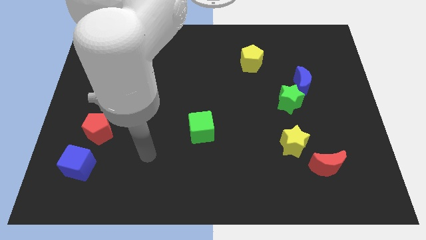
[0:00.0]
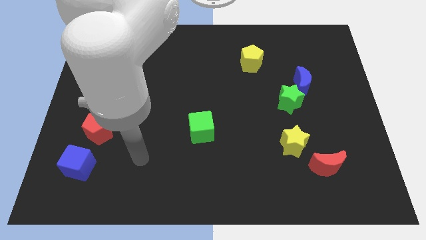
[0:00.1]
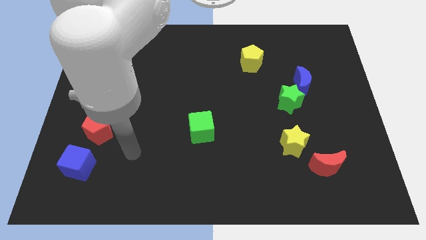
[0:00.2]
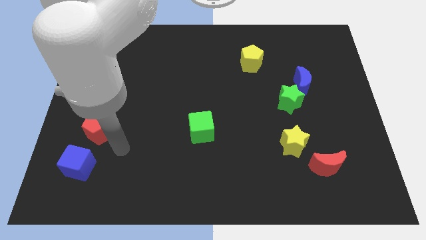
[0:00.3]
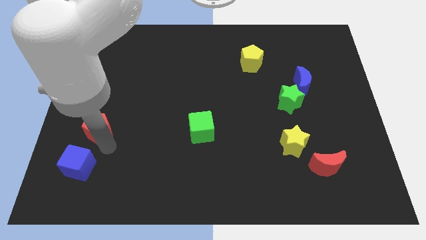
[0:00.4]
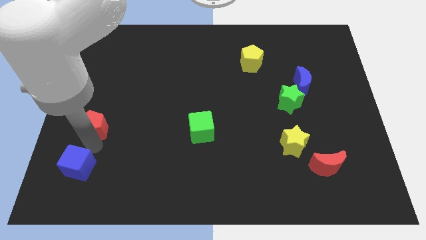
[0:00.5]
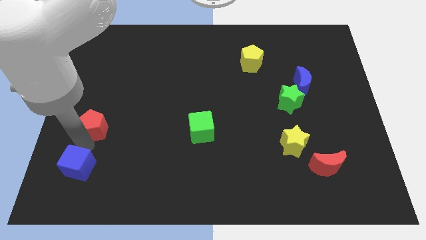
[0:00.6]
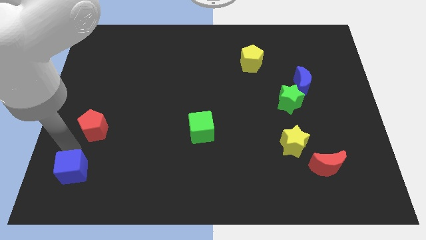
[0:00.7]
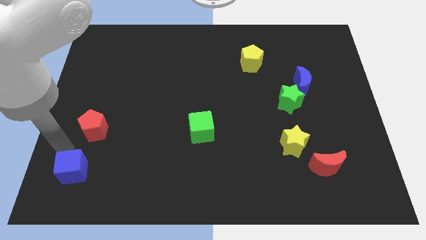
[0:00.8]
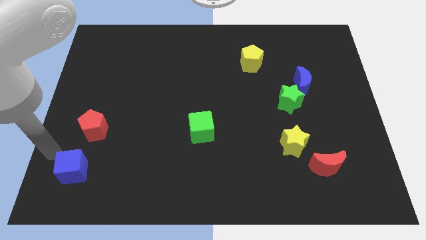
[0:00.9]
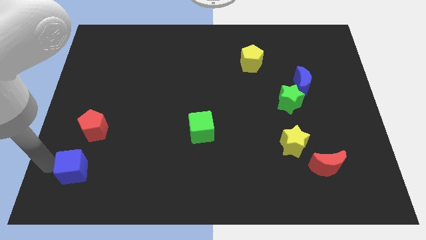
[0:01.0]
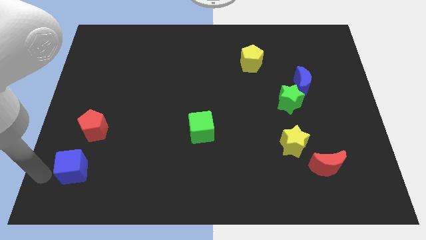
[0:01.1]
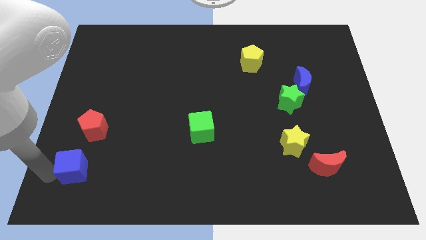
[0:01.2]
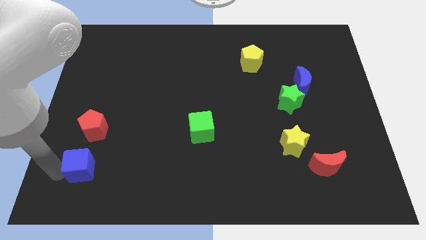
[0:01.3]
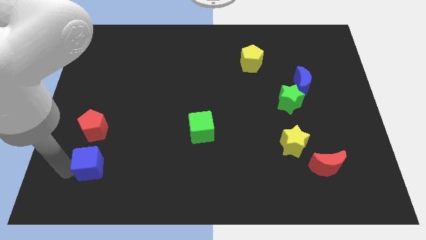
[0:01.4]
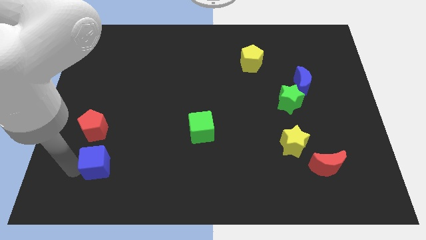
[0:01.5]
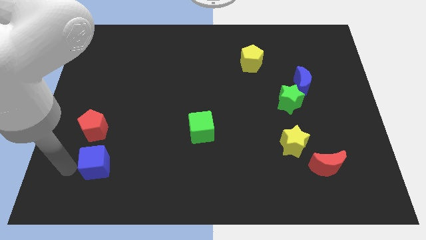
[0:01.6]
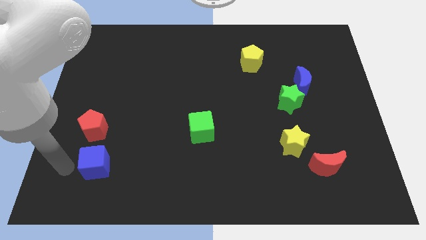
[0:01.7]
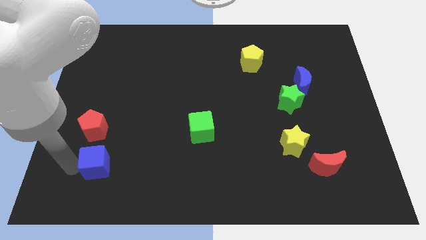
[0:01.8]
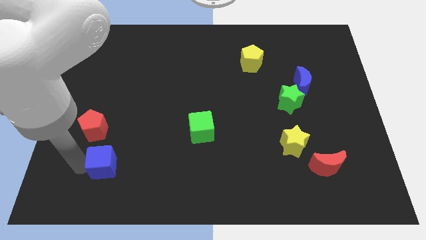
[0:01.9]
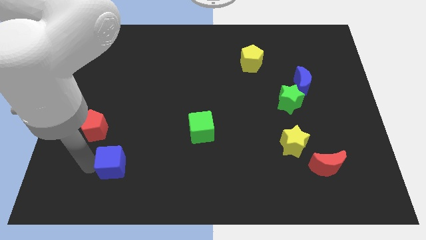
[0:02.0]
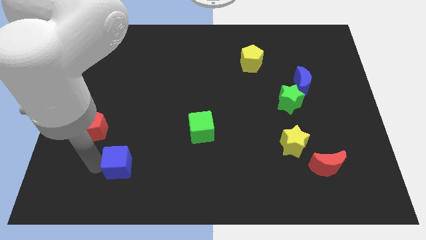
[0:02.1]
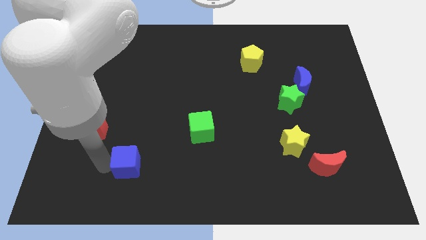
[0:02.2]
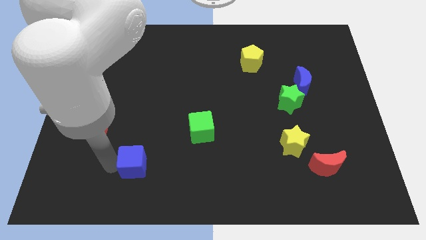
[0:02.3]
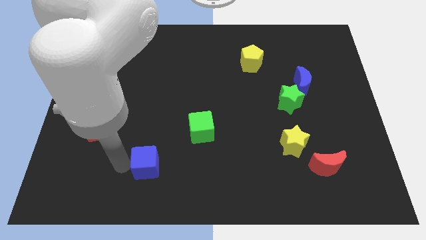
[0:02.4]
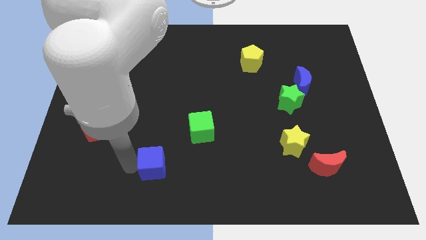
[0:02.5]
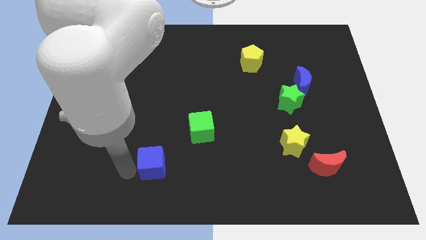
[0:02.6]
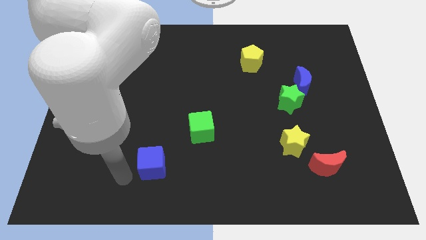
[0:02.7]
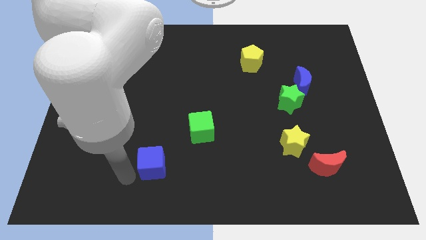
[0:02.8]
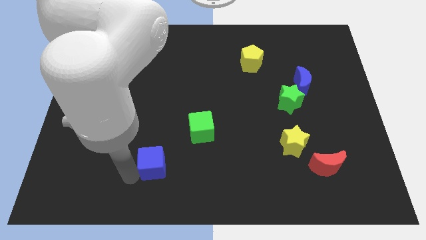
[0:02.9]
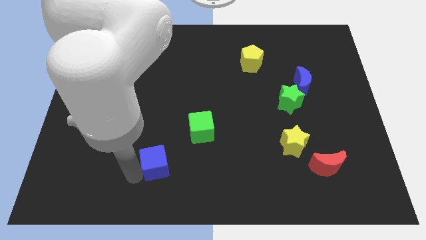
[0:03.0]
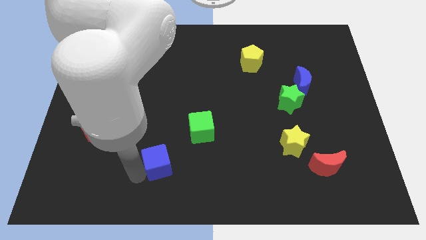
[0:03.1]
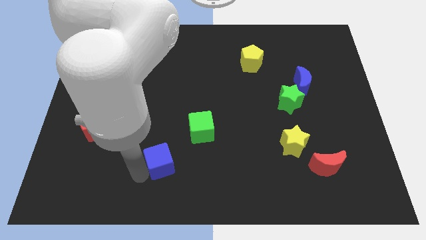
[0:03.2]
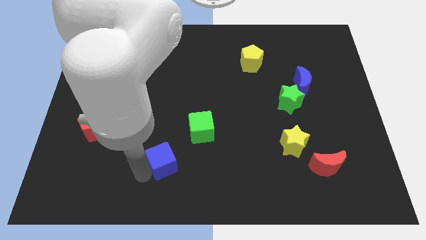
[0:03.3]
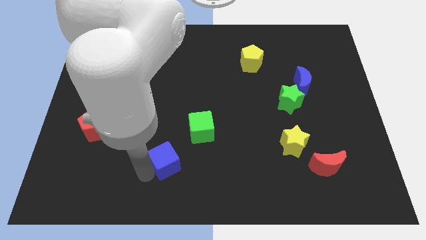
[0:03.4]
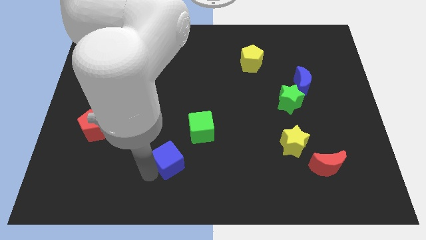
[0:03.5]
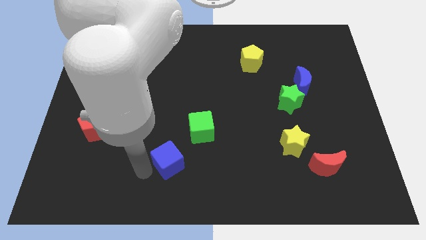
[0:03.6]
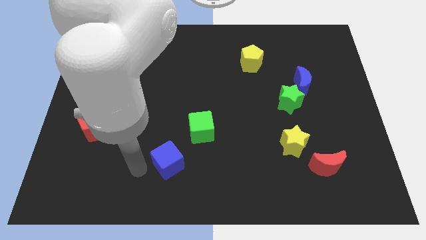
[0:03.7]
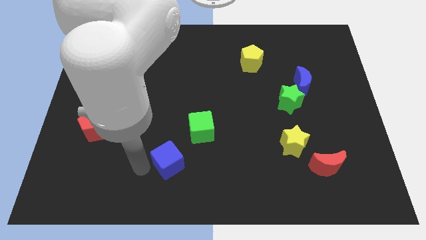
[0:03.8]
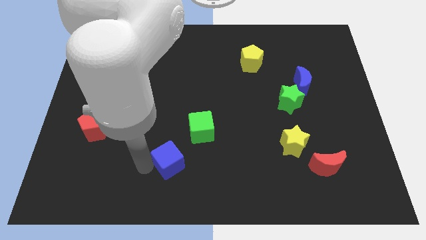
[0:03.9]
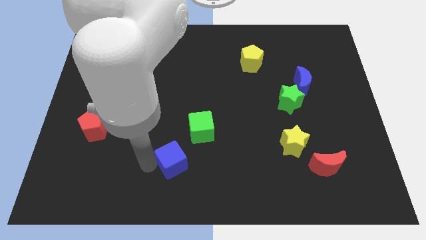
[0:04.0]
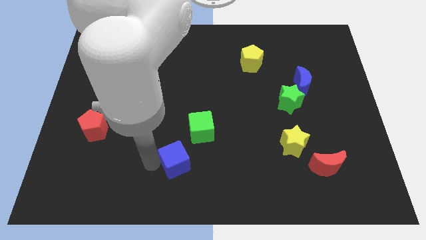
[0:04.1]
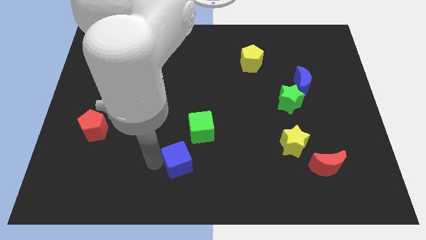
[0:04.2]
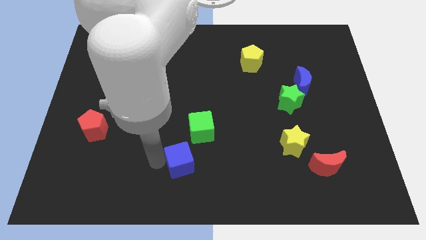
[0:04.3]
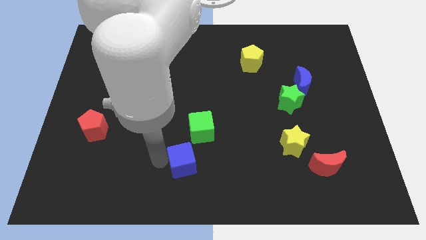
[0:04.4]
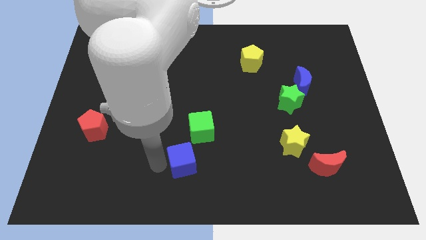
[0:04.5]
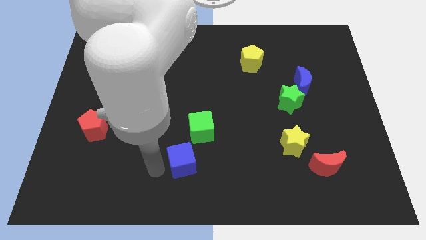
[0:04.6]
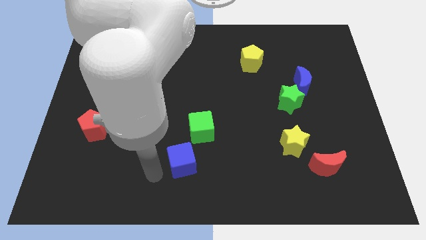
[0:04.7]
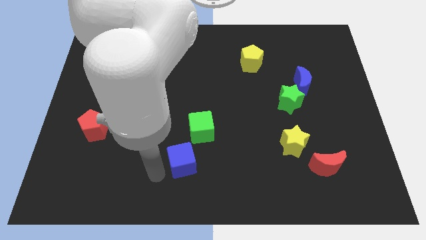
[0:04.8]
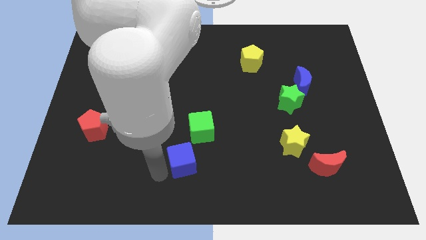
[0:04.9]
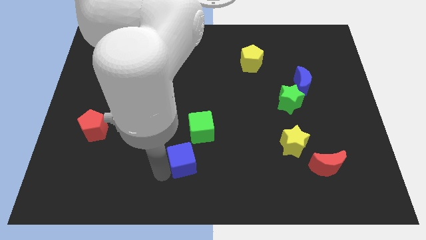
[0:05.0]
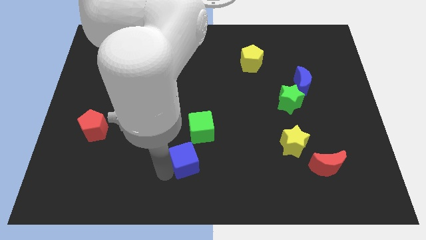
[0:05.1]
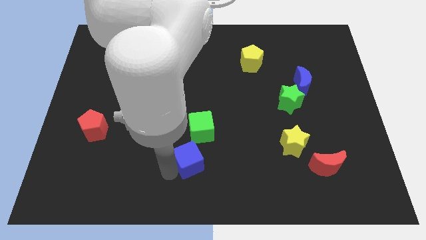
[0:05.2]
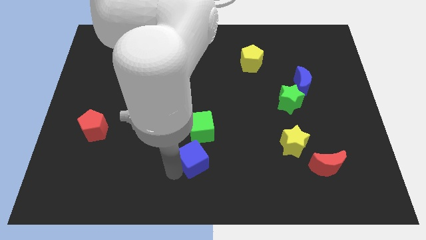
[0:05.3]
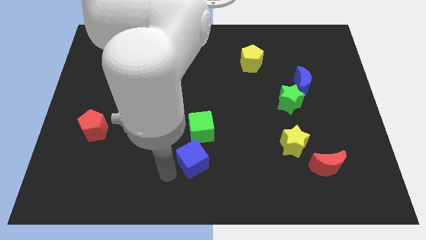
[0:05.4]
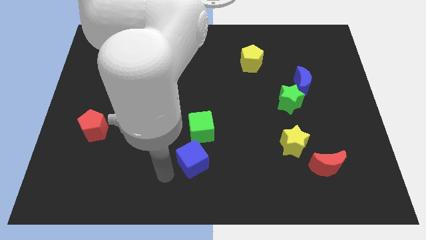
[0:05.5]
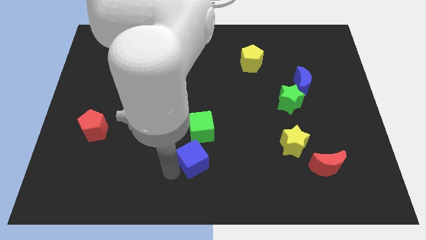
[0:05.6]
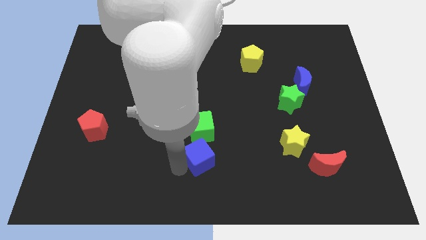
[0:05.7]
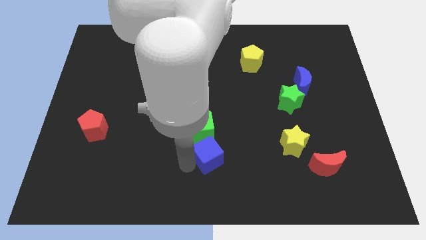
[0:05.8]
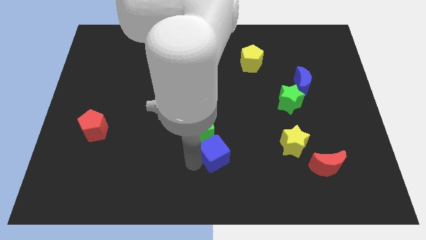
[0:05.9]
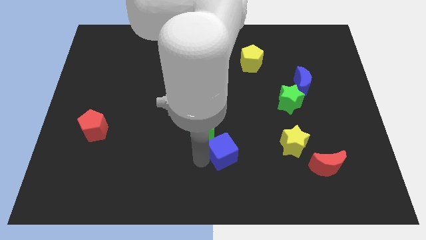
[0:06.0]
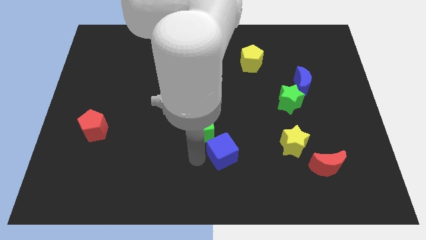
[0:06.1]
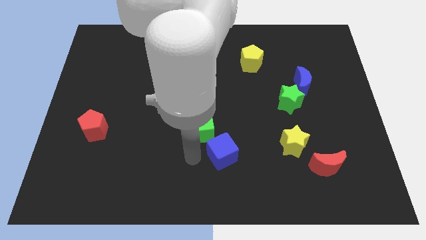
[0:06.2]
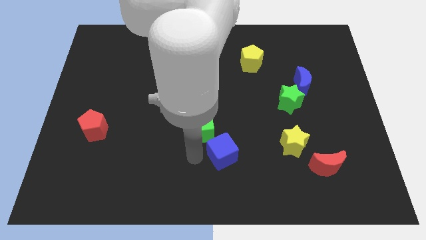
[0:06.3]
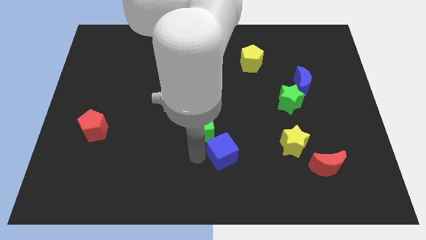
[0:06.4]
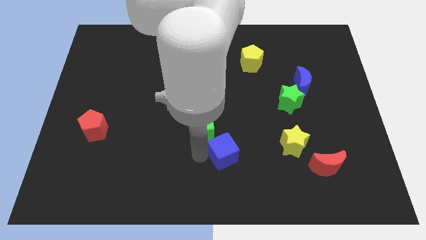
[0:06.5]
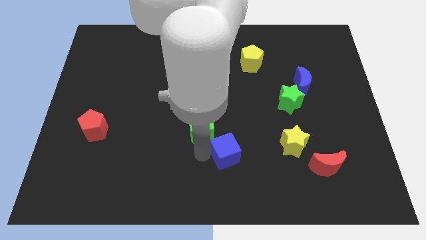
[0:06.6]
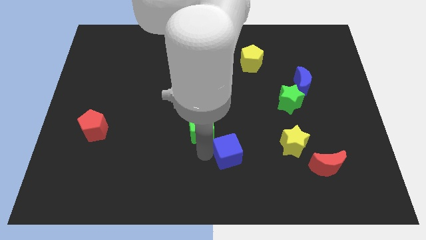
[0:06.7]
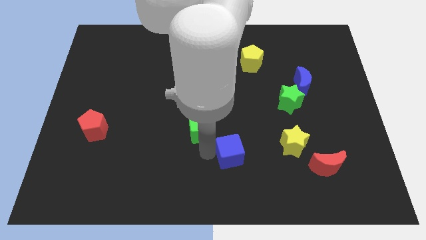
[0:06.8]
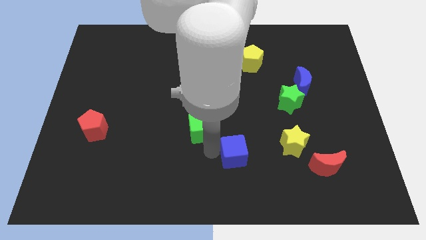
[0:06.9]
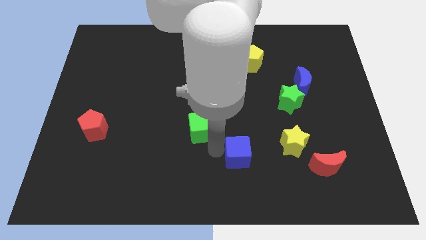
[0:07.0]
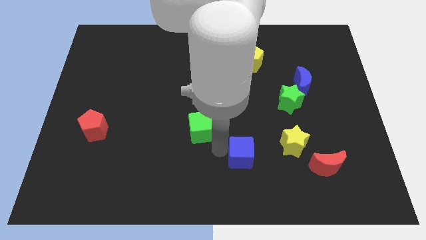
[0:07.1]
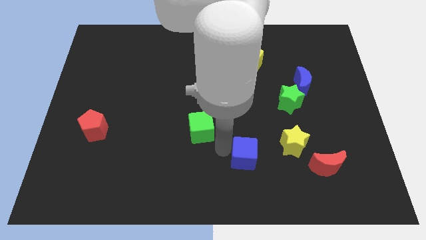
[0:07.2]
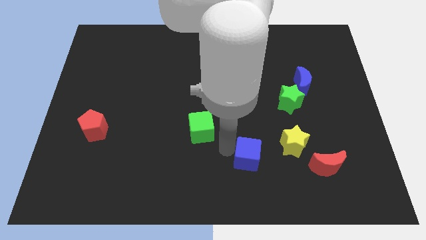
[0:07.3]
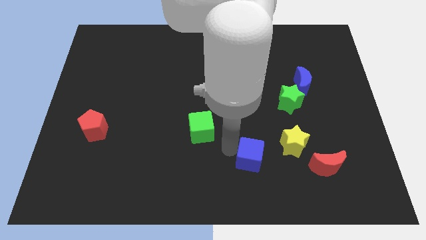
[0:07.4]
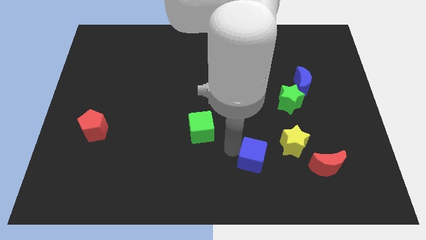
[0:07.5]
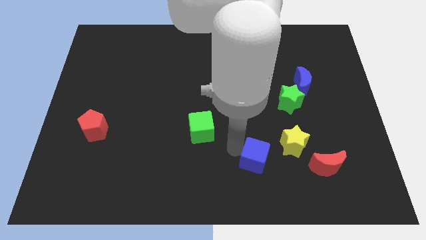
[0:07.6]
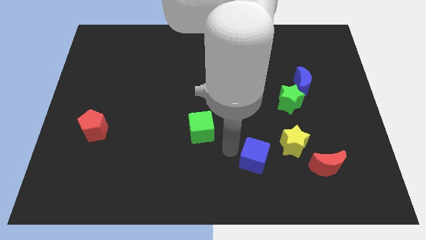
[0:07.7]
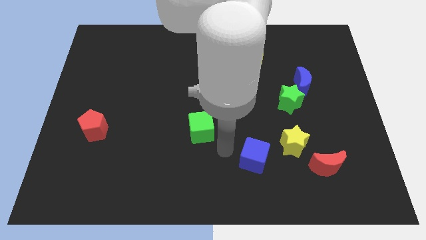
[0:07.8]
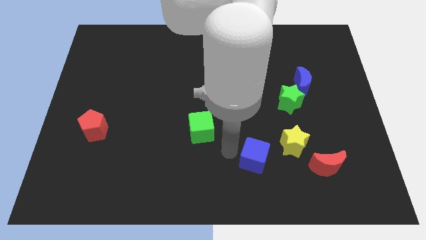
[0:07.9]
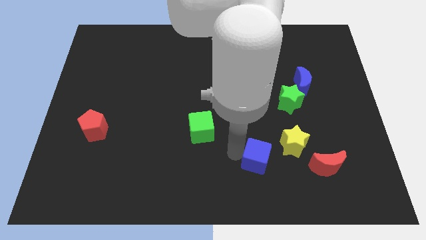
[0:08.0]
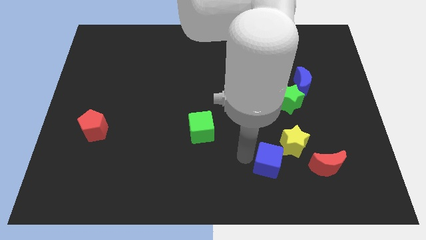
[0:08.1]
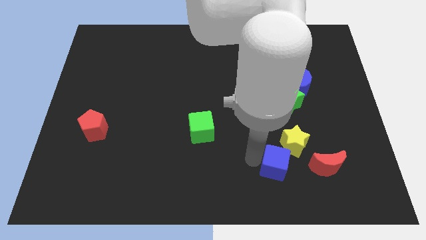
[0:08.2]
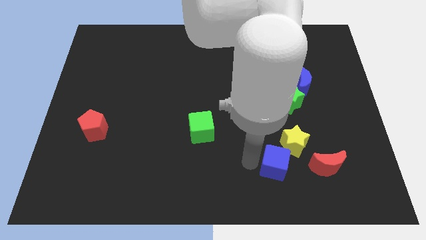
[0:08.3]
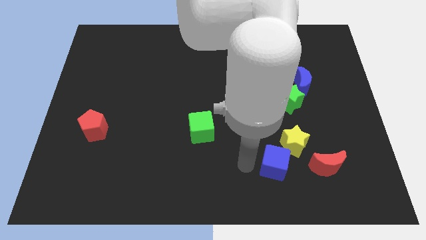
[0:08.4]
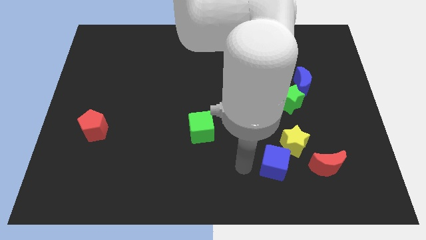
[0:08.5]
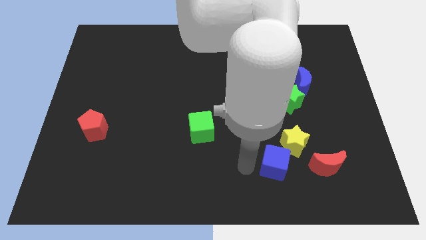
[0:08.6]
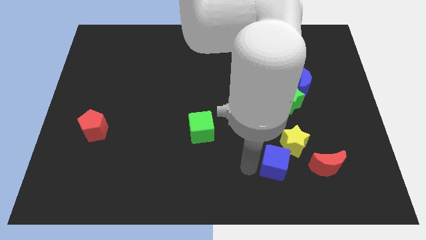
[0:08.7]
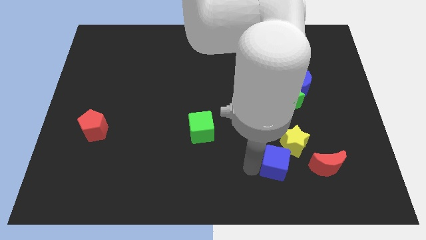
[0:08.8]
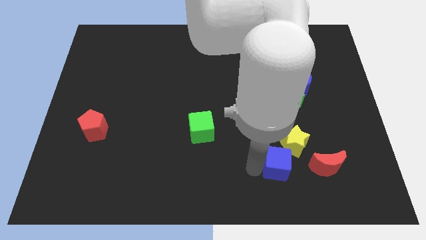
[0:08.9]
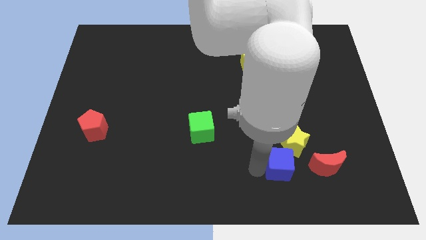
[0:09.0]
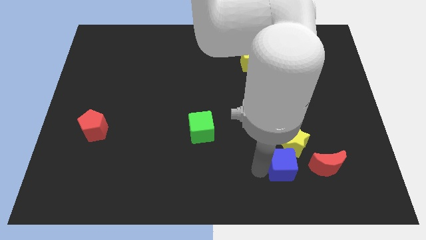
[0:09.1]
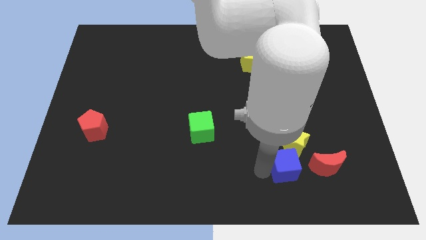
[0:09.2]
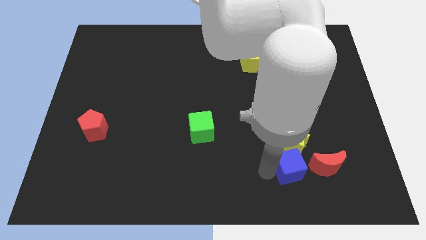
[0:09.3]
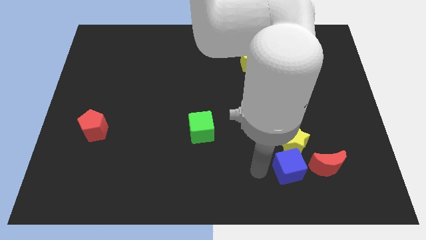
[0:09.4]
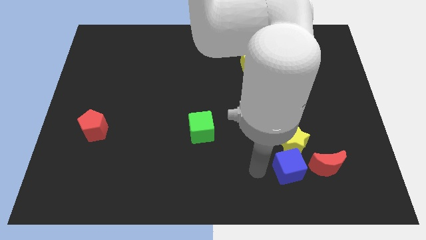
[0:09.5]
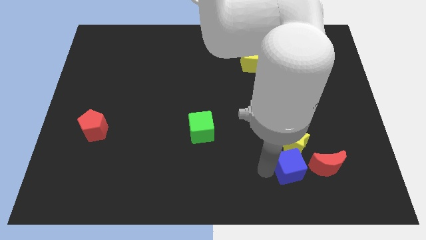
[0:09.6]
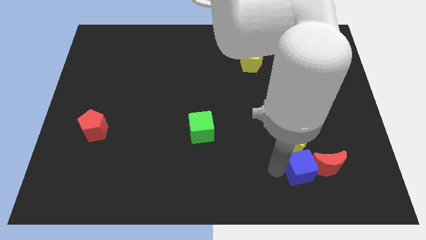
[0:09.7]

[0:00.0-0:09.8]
move the blue cube towards the red moon
